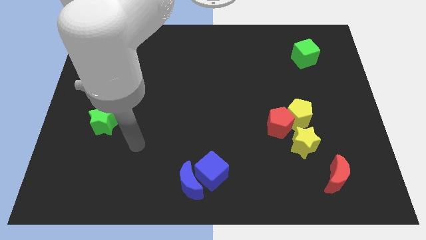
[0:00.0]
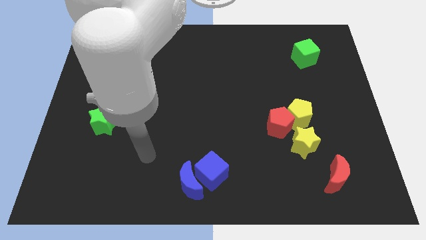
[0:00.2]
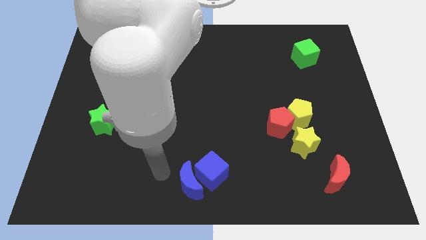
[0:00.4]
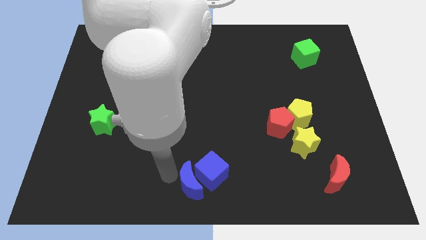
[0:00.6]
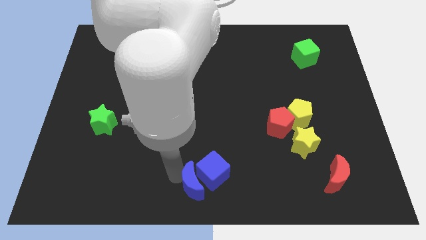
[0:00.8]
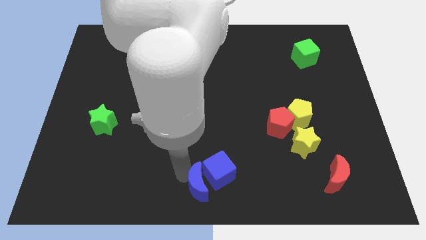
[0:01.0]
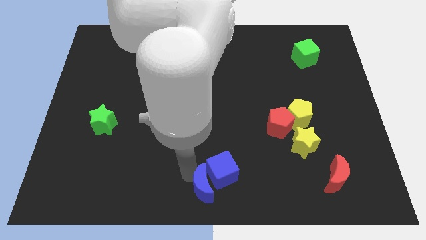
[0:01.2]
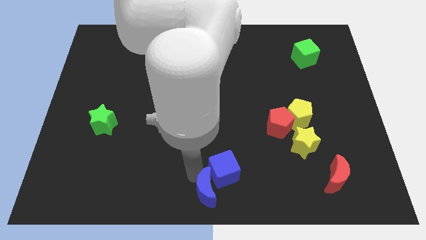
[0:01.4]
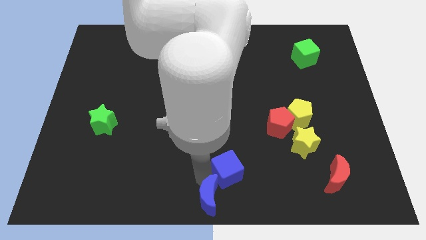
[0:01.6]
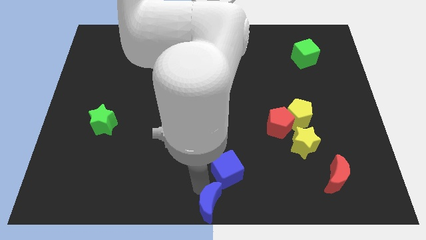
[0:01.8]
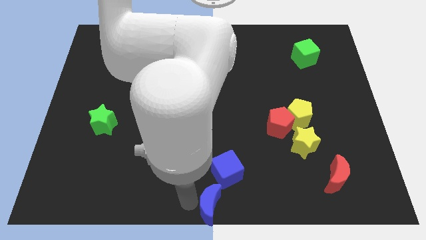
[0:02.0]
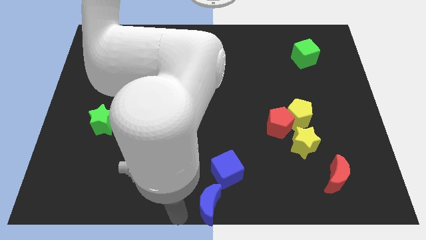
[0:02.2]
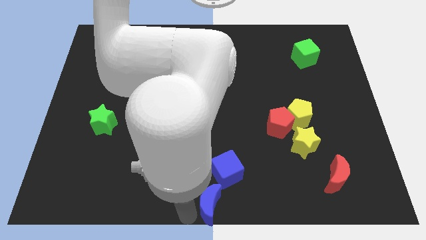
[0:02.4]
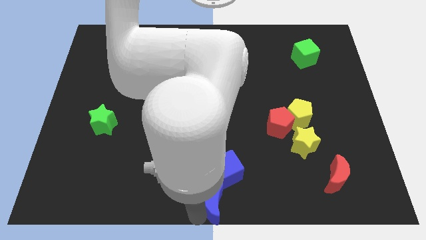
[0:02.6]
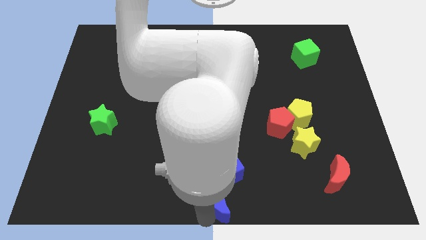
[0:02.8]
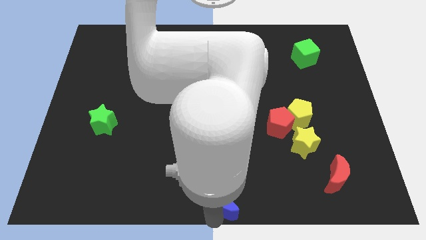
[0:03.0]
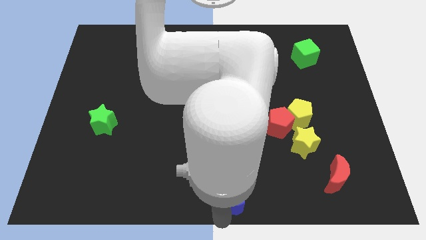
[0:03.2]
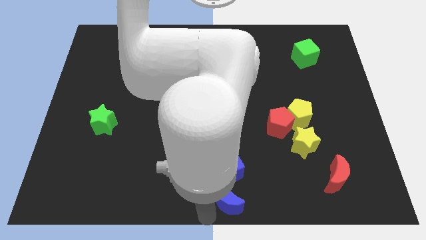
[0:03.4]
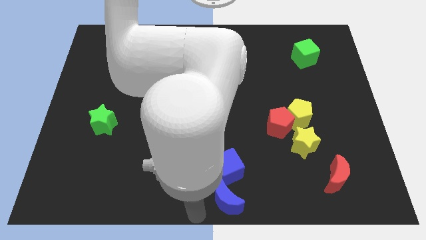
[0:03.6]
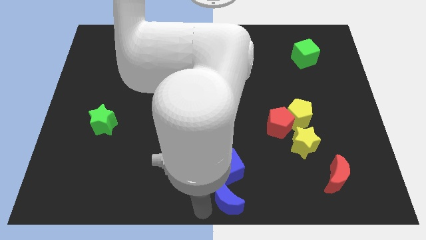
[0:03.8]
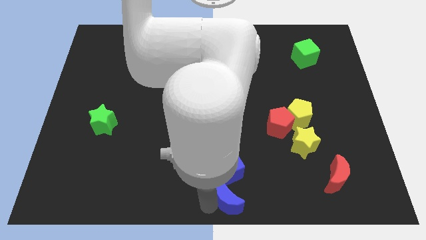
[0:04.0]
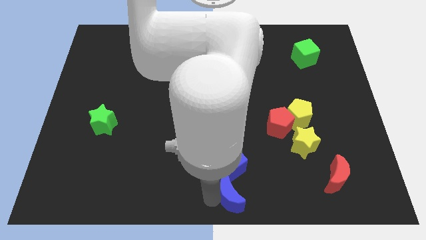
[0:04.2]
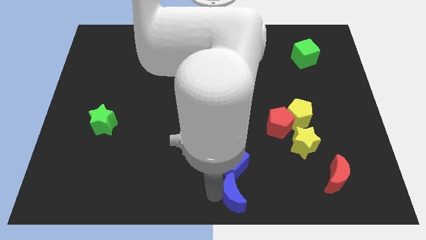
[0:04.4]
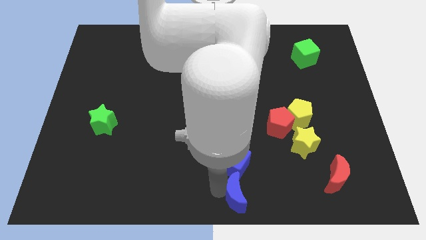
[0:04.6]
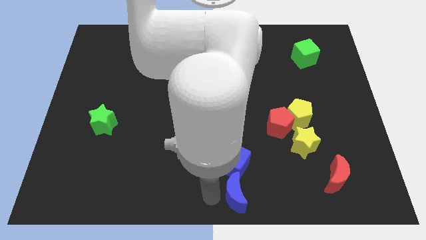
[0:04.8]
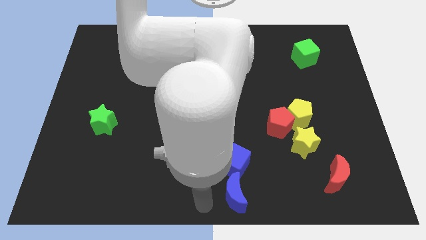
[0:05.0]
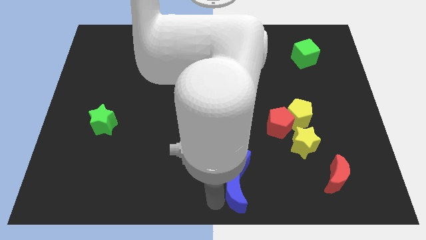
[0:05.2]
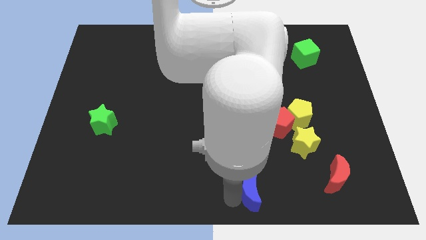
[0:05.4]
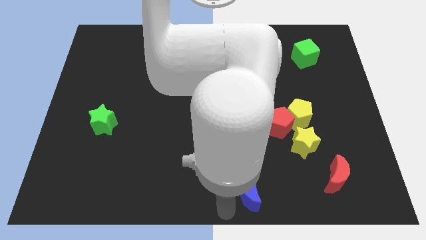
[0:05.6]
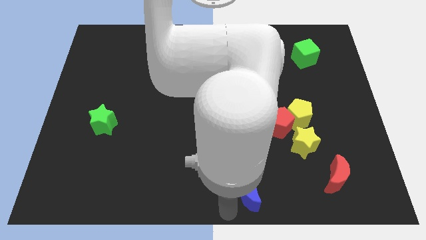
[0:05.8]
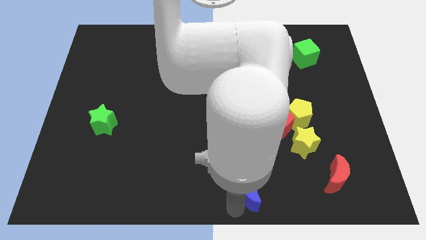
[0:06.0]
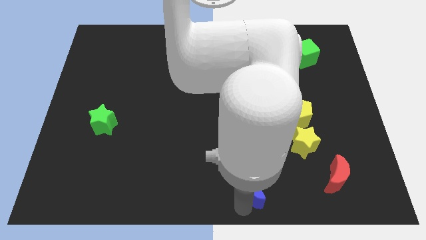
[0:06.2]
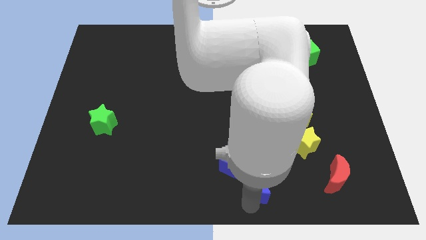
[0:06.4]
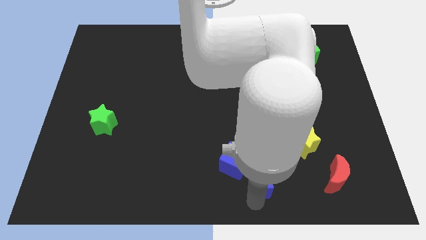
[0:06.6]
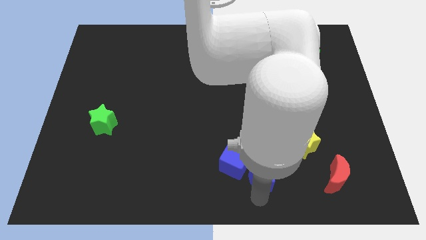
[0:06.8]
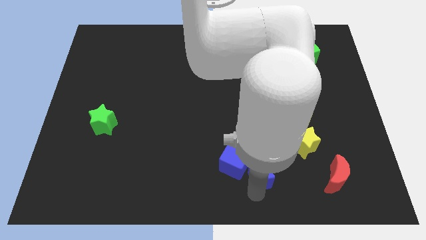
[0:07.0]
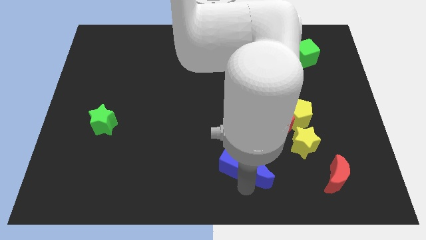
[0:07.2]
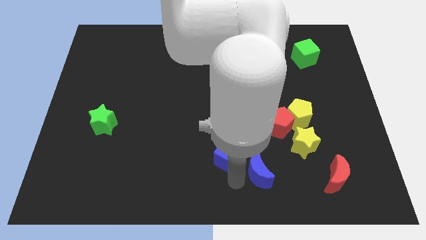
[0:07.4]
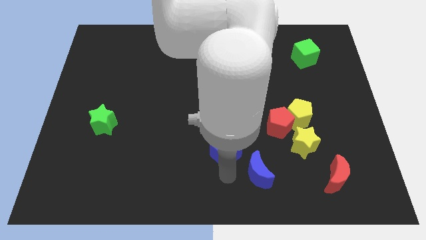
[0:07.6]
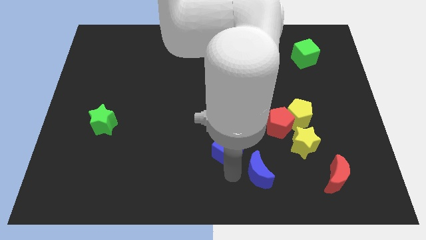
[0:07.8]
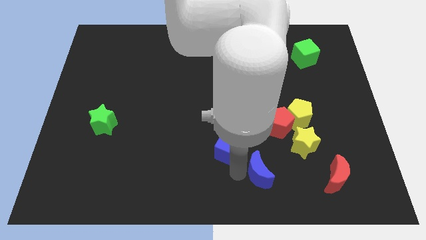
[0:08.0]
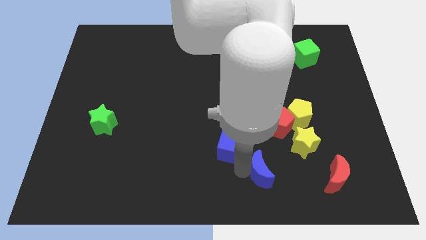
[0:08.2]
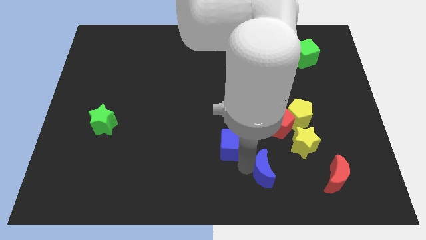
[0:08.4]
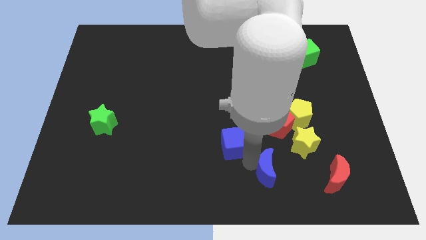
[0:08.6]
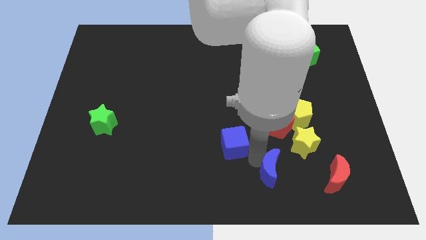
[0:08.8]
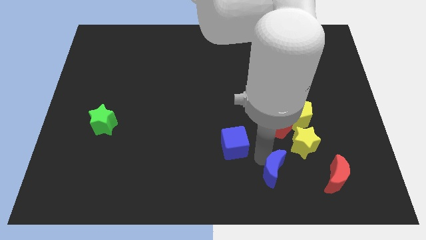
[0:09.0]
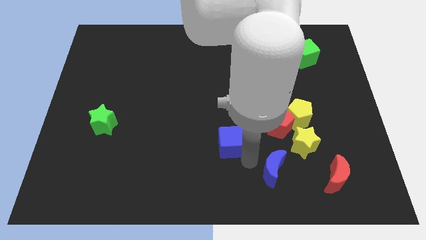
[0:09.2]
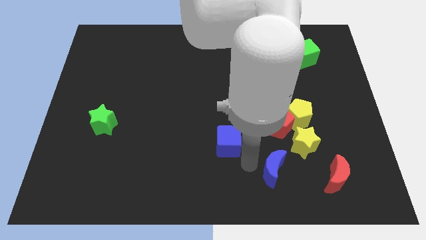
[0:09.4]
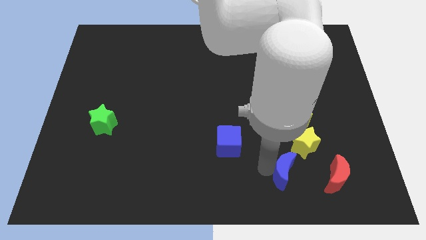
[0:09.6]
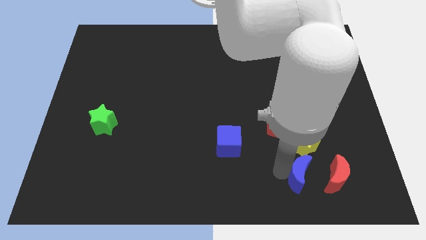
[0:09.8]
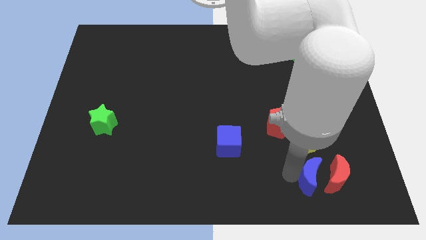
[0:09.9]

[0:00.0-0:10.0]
slide the blue moon to the red moon

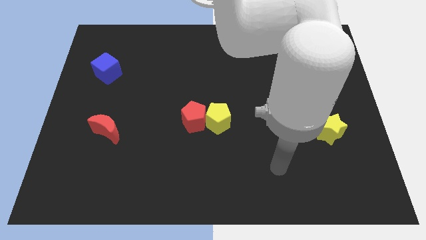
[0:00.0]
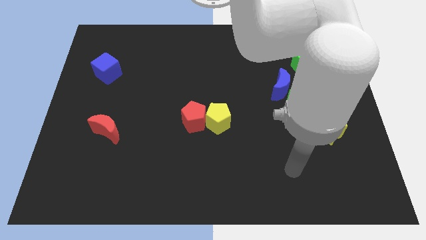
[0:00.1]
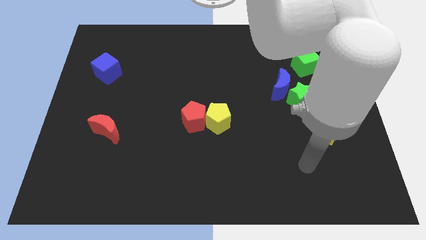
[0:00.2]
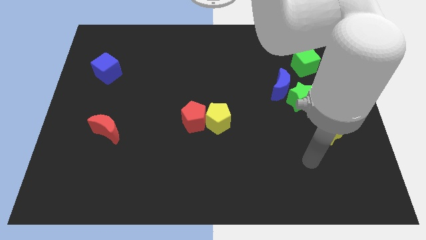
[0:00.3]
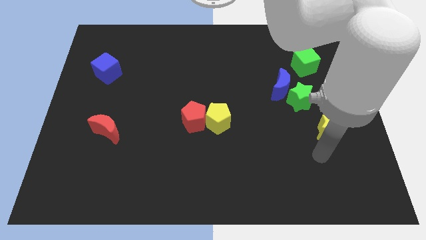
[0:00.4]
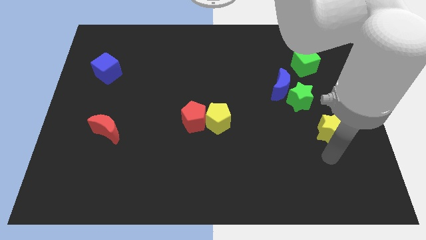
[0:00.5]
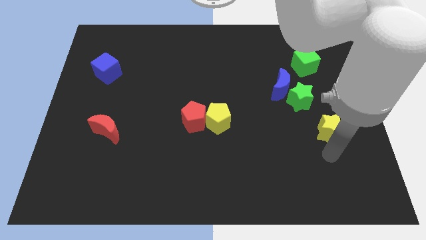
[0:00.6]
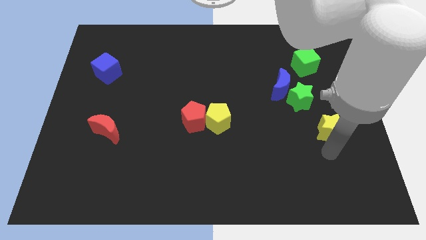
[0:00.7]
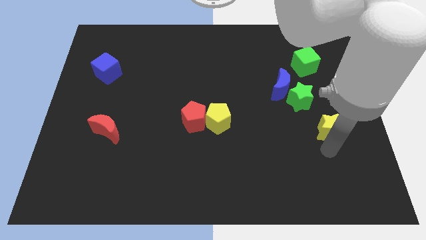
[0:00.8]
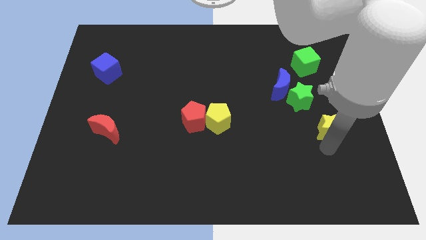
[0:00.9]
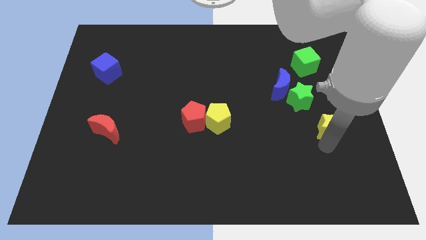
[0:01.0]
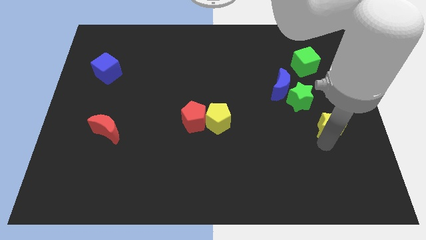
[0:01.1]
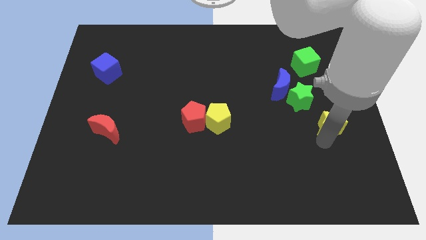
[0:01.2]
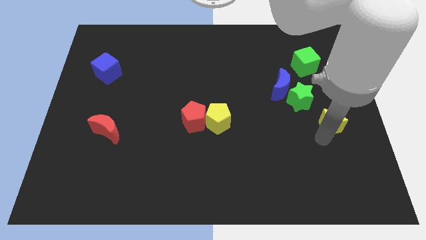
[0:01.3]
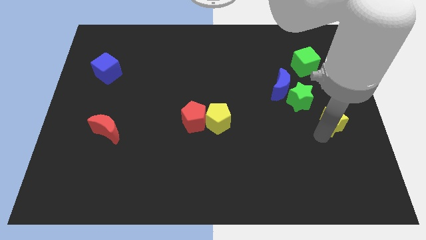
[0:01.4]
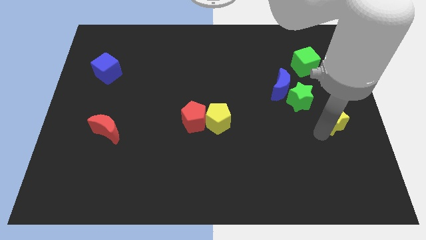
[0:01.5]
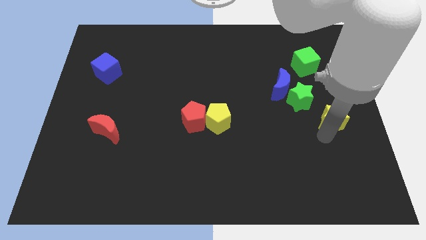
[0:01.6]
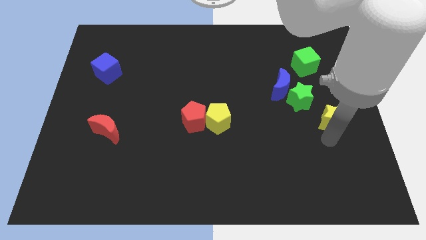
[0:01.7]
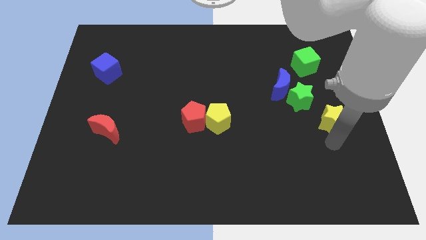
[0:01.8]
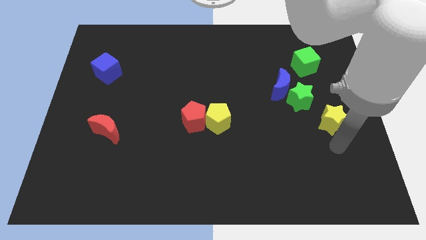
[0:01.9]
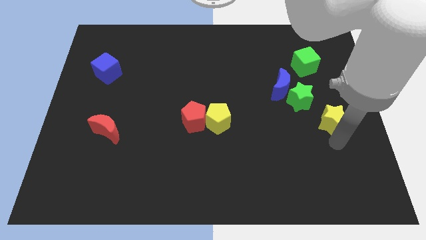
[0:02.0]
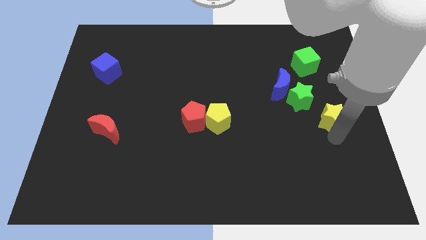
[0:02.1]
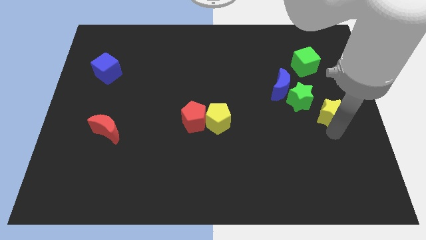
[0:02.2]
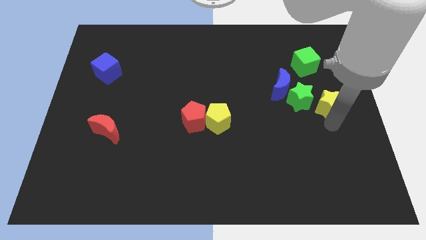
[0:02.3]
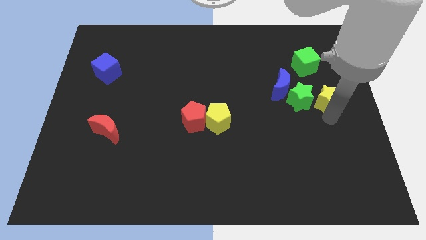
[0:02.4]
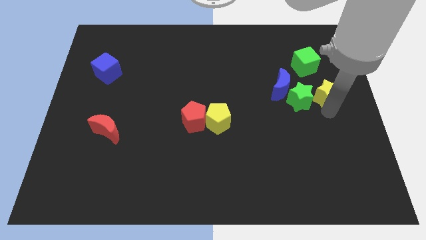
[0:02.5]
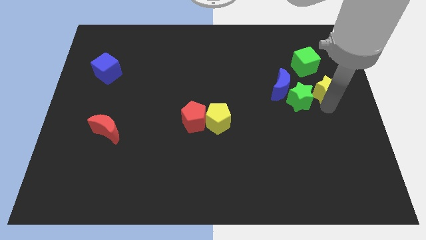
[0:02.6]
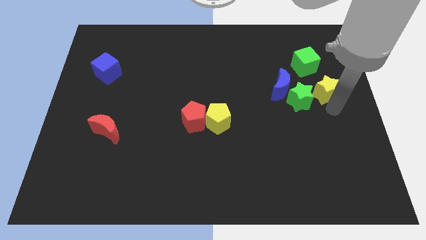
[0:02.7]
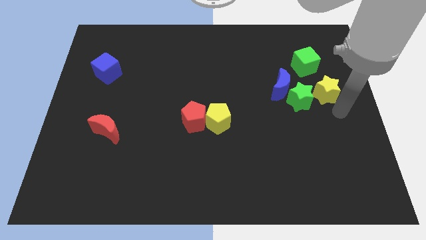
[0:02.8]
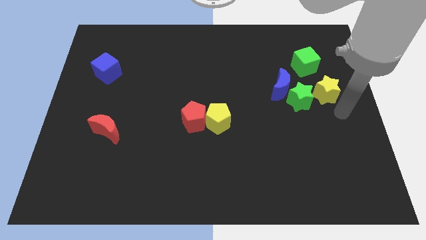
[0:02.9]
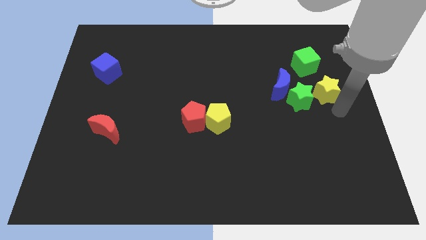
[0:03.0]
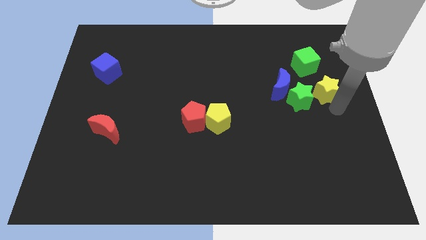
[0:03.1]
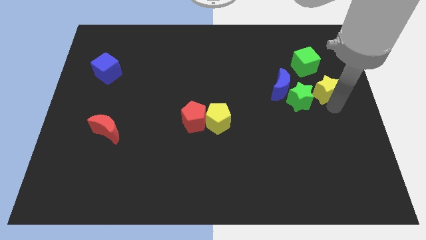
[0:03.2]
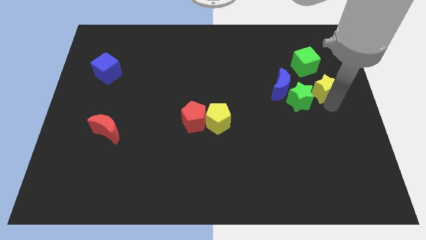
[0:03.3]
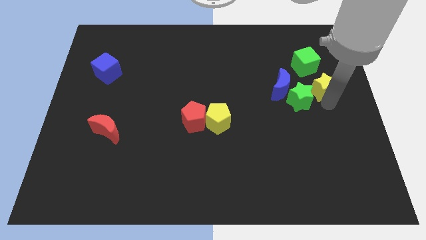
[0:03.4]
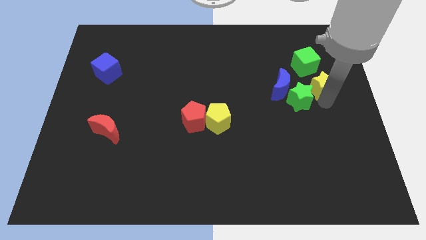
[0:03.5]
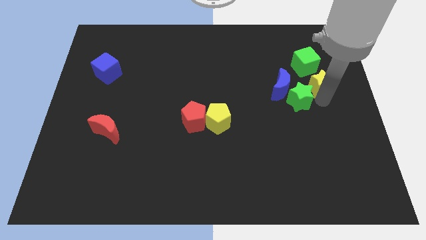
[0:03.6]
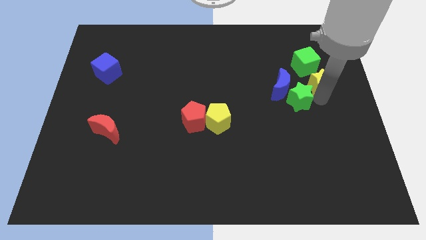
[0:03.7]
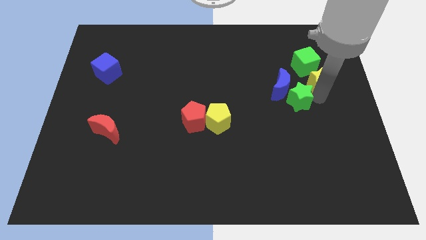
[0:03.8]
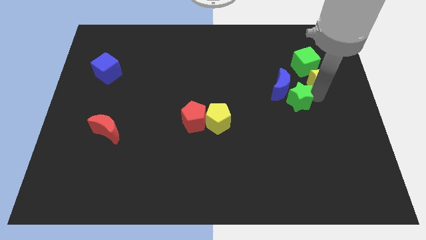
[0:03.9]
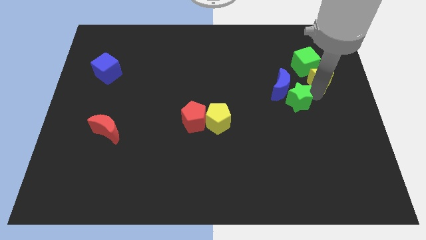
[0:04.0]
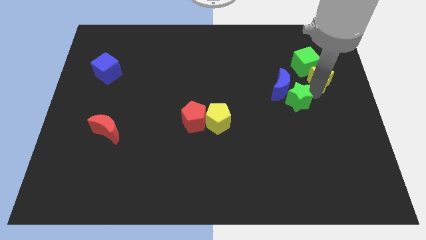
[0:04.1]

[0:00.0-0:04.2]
move the yellow star close to the green cube
